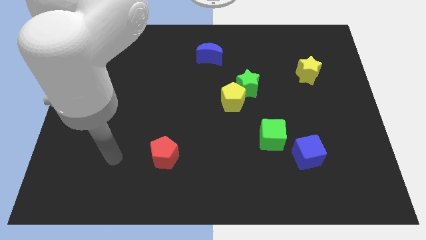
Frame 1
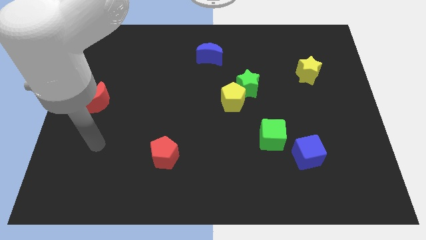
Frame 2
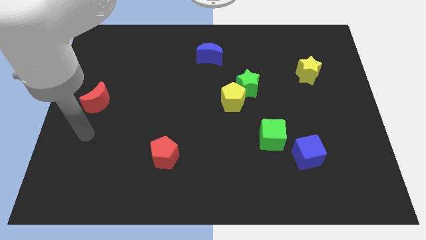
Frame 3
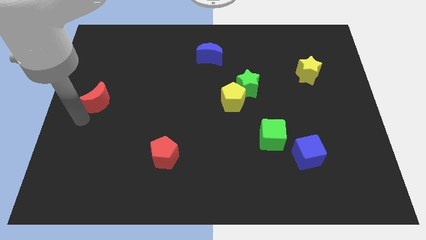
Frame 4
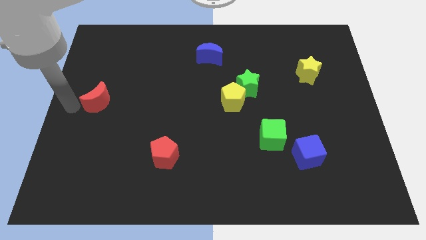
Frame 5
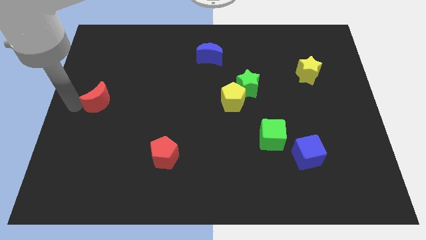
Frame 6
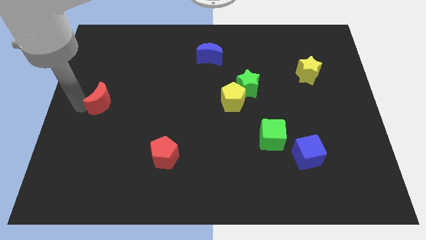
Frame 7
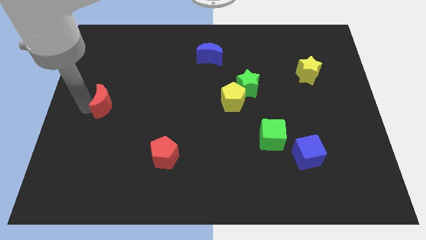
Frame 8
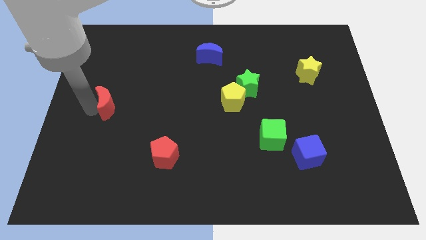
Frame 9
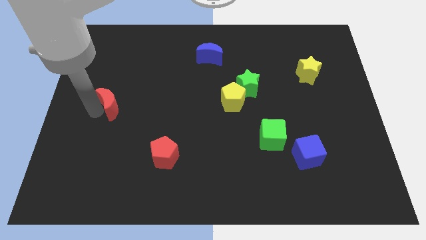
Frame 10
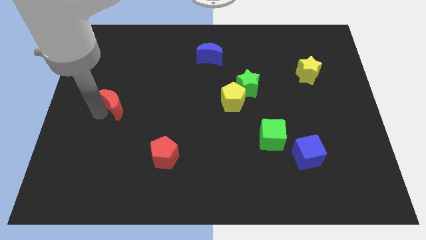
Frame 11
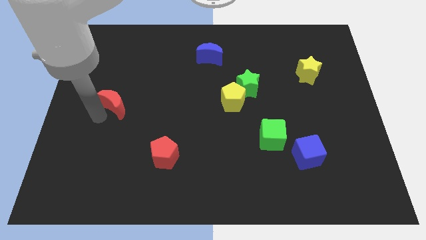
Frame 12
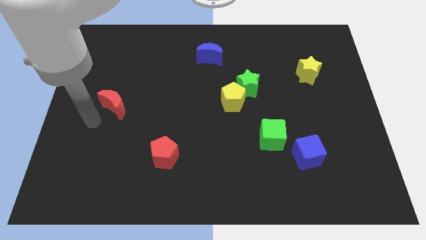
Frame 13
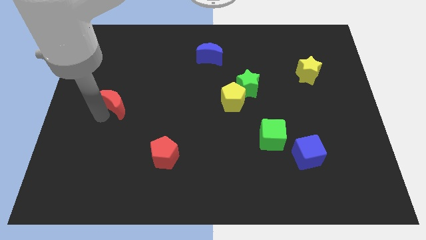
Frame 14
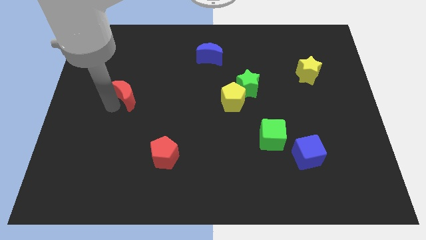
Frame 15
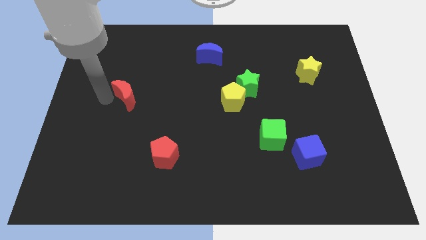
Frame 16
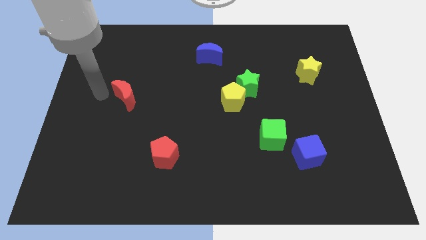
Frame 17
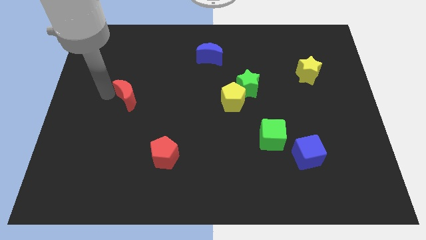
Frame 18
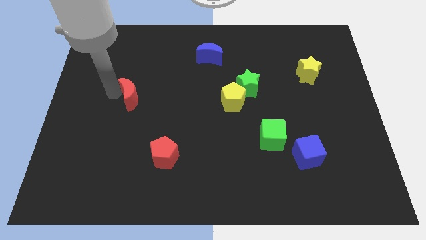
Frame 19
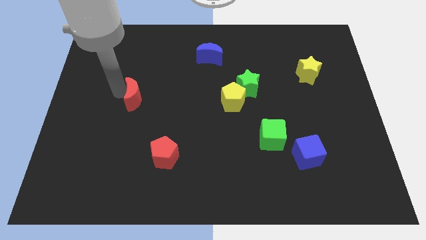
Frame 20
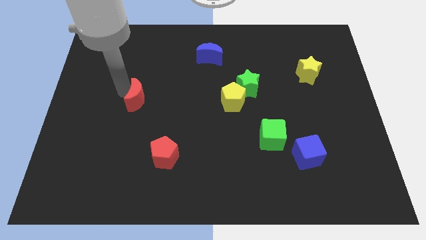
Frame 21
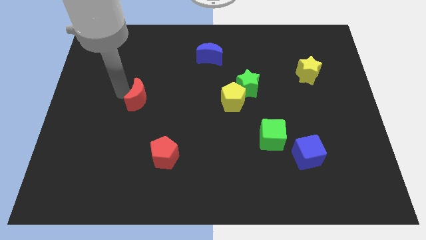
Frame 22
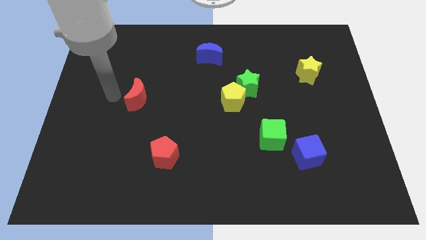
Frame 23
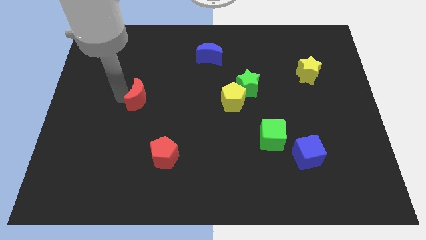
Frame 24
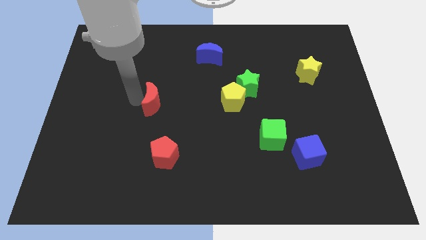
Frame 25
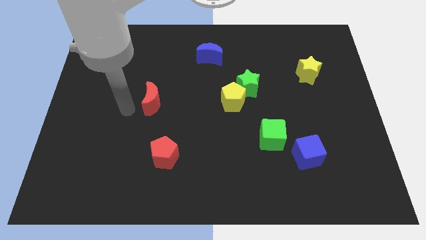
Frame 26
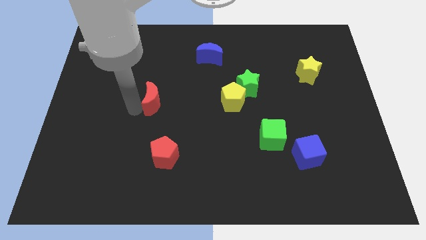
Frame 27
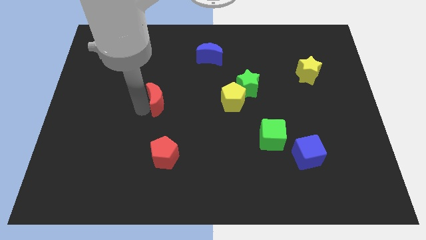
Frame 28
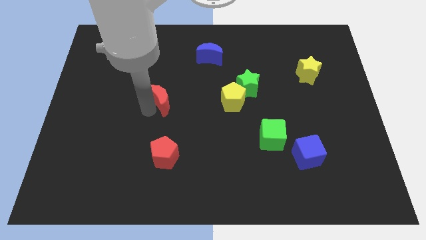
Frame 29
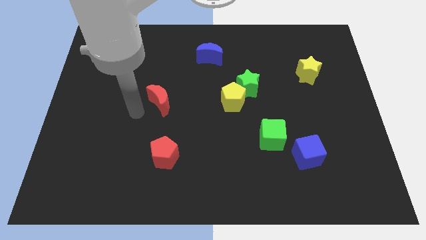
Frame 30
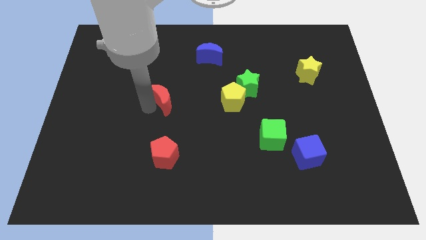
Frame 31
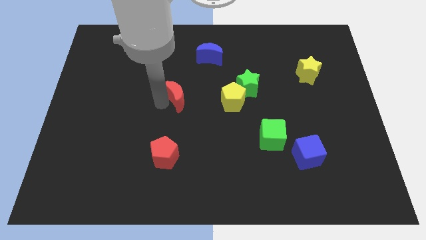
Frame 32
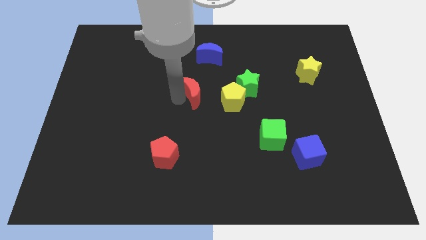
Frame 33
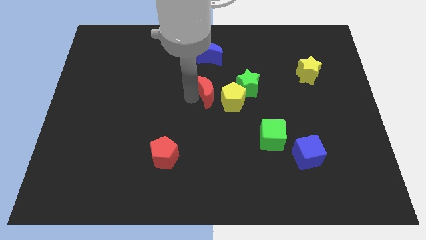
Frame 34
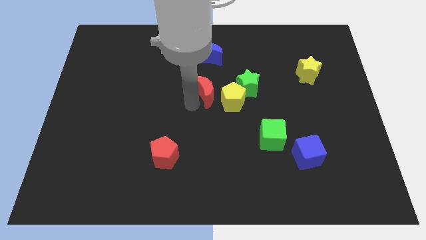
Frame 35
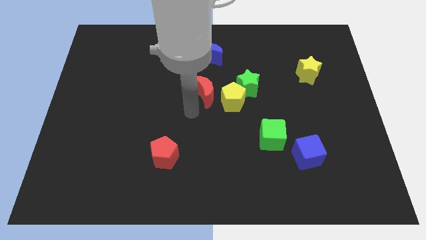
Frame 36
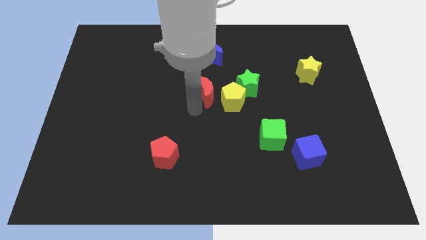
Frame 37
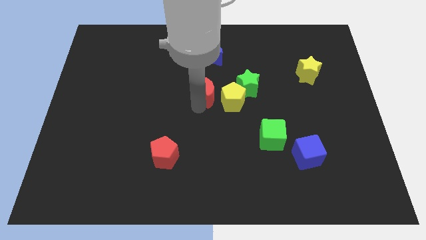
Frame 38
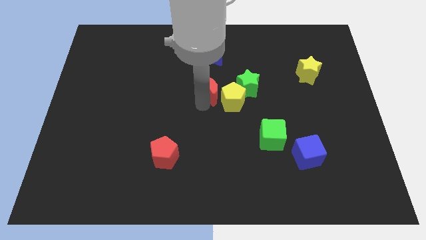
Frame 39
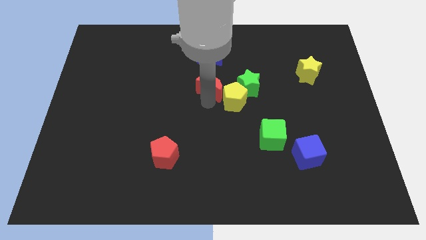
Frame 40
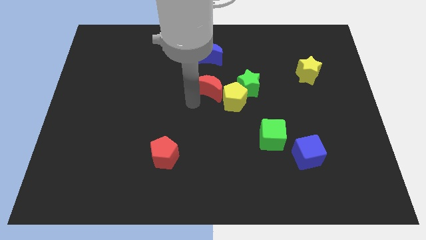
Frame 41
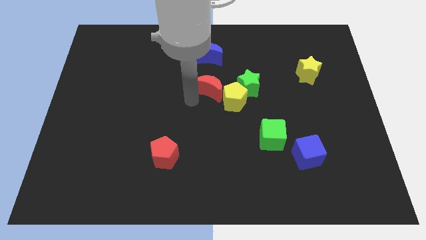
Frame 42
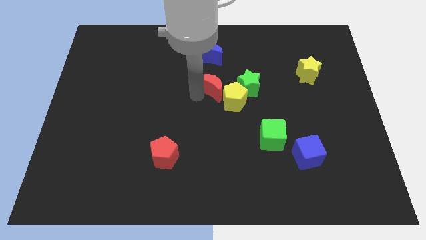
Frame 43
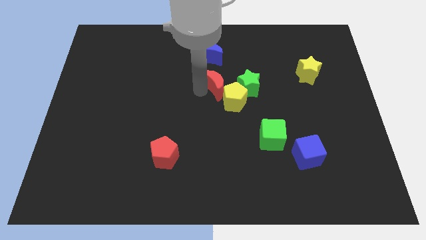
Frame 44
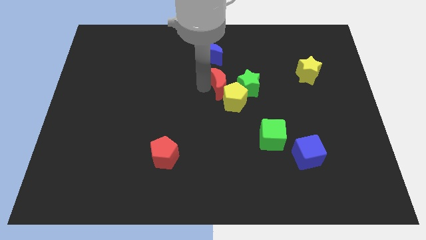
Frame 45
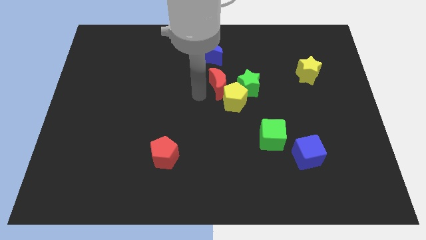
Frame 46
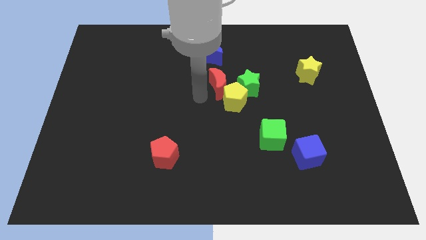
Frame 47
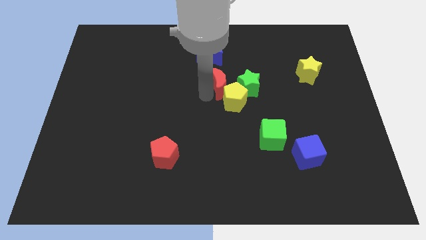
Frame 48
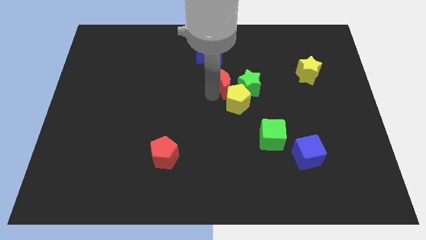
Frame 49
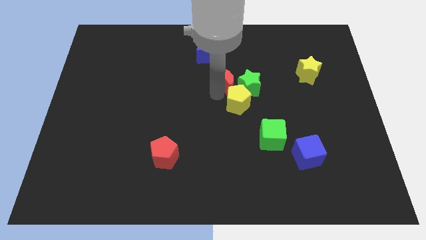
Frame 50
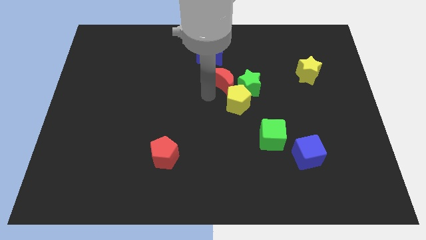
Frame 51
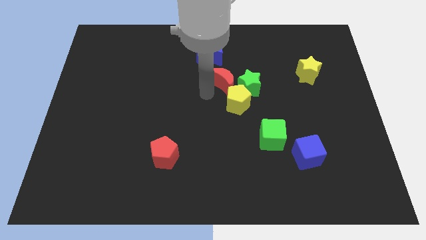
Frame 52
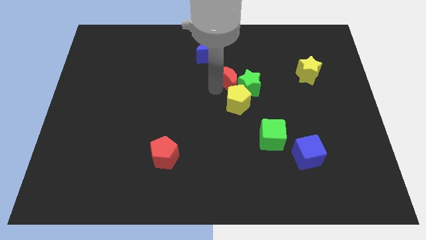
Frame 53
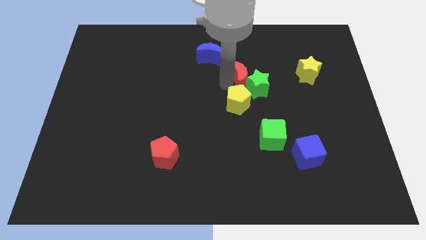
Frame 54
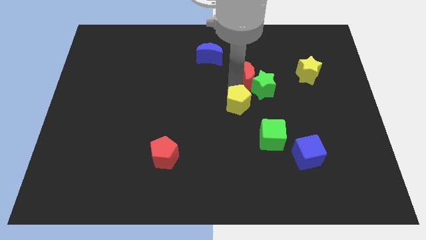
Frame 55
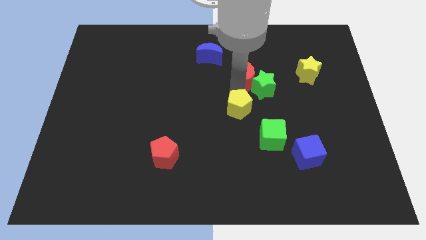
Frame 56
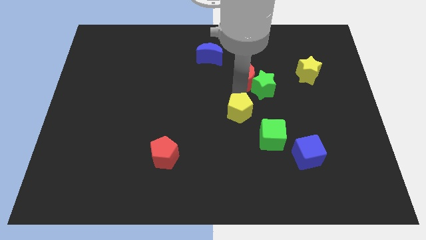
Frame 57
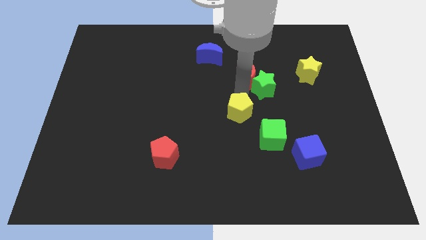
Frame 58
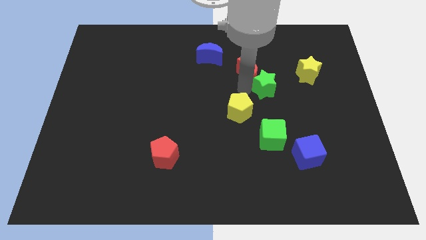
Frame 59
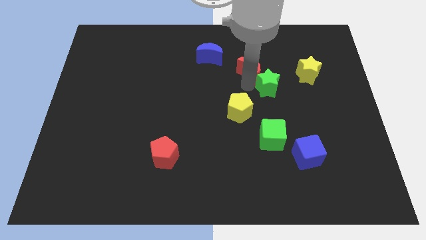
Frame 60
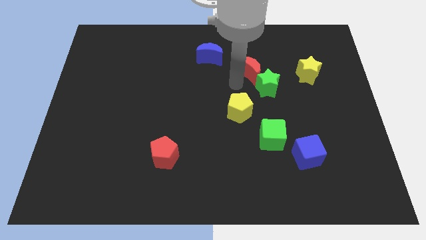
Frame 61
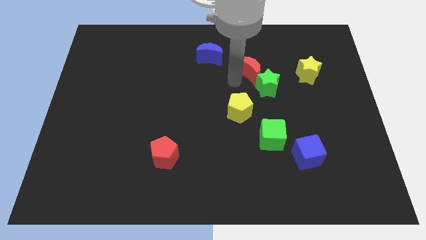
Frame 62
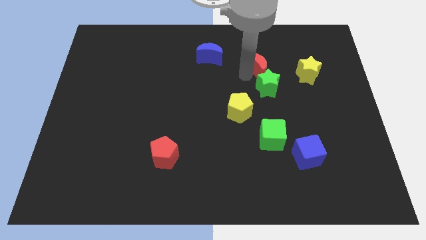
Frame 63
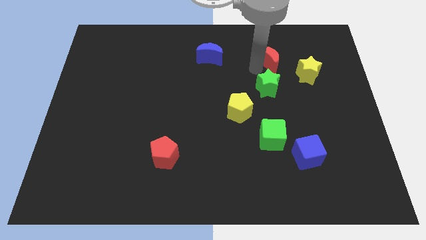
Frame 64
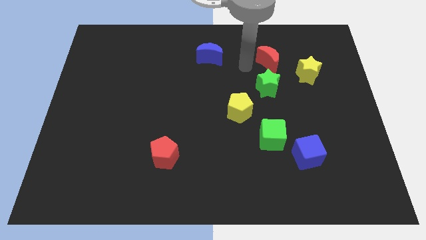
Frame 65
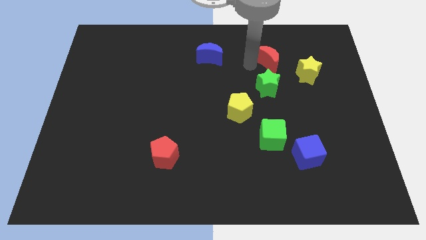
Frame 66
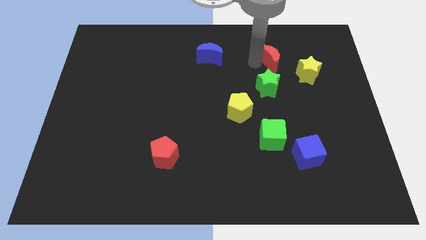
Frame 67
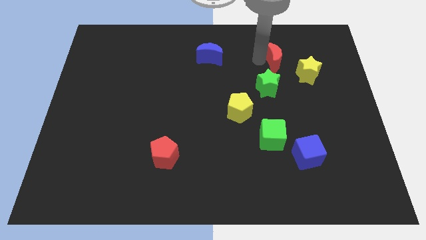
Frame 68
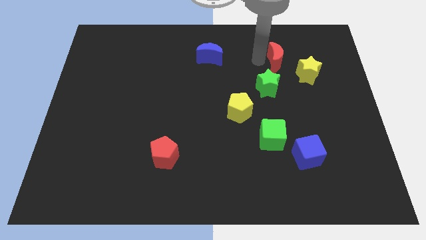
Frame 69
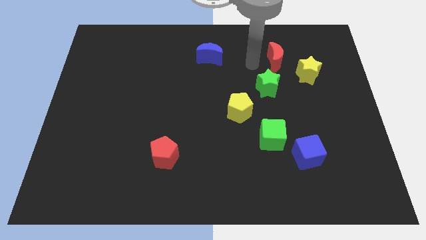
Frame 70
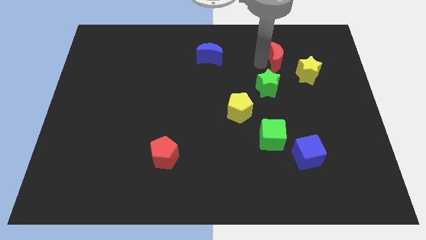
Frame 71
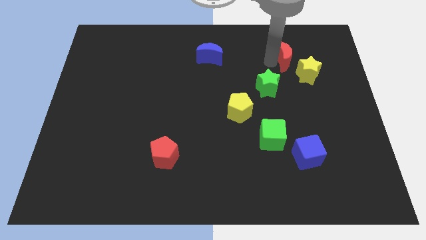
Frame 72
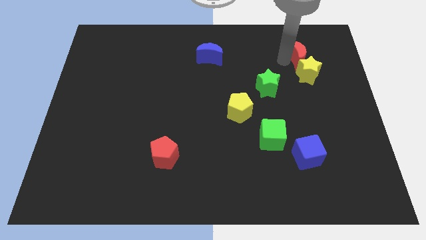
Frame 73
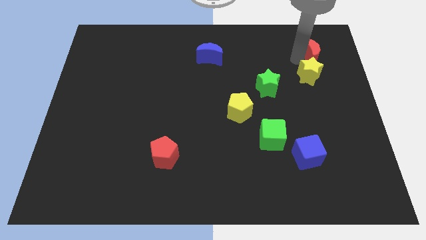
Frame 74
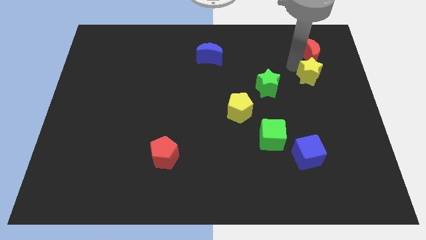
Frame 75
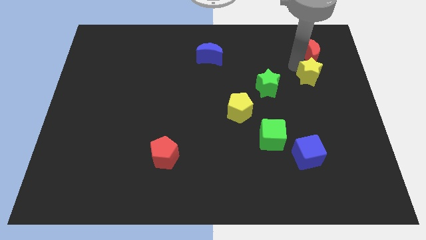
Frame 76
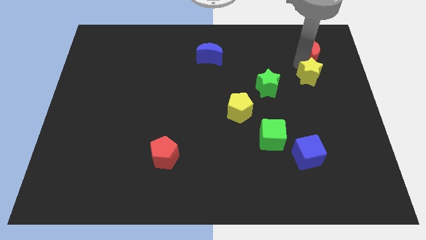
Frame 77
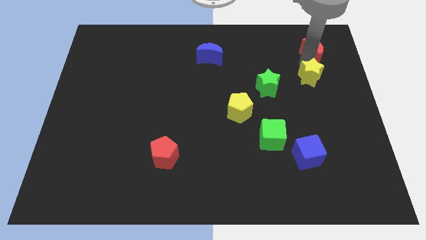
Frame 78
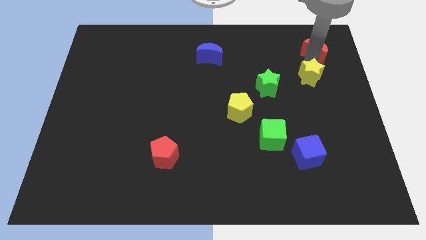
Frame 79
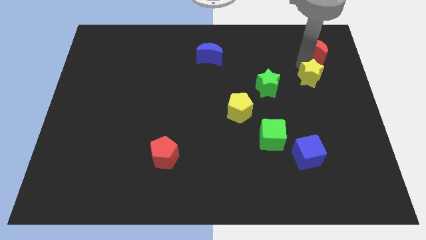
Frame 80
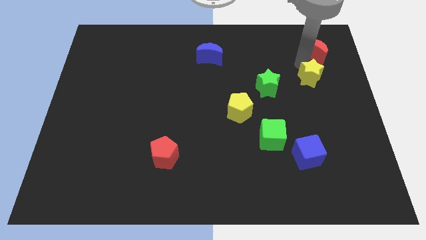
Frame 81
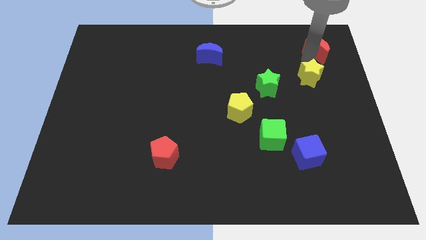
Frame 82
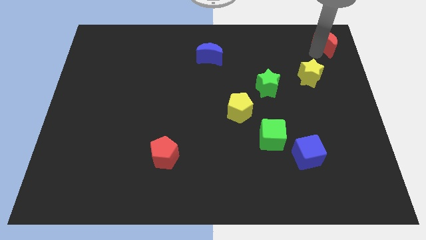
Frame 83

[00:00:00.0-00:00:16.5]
push the red moon to the top right
